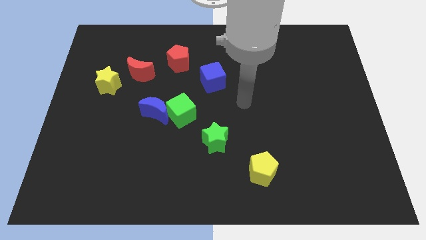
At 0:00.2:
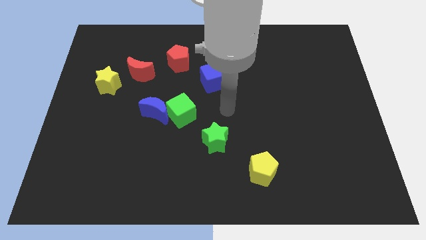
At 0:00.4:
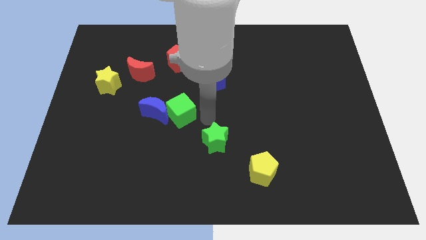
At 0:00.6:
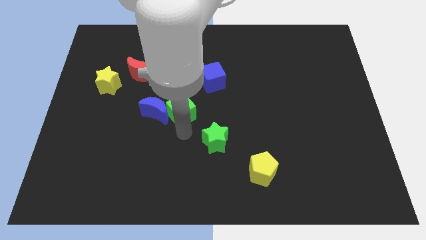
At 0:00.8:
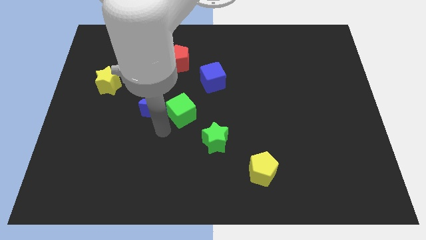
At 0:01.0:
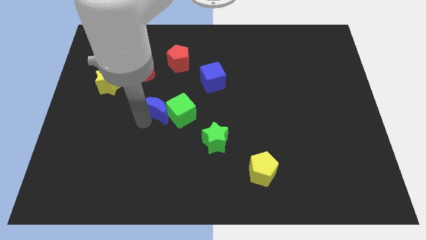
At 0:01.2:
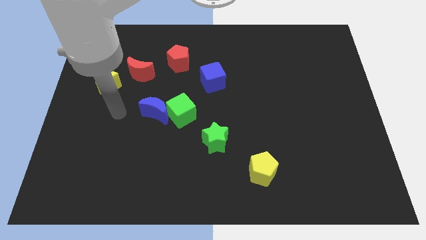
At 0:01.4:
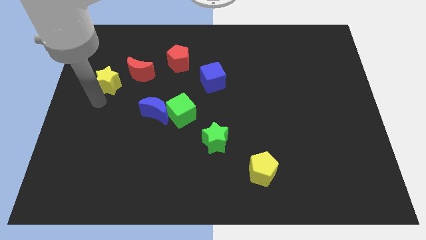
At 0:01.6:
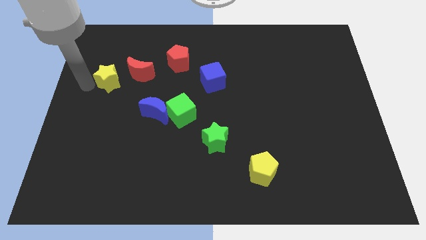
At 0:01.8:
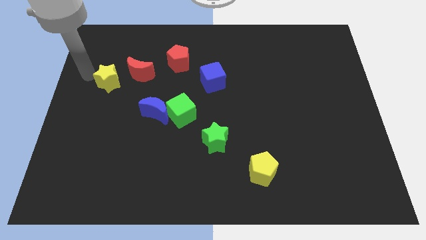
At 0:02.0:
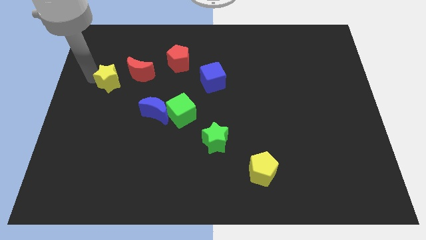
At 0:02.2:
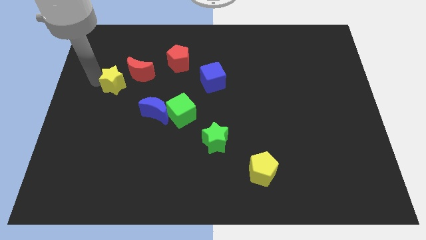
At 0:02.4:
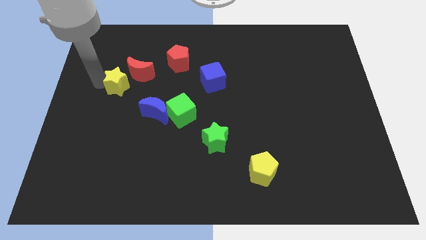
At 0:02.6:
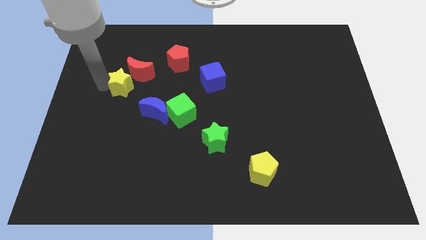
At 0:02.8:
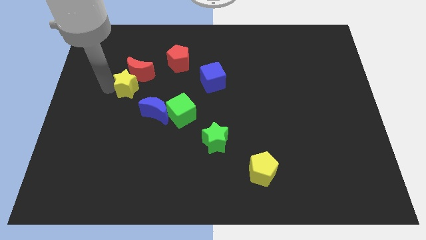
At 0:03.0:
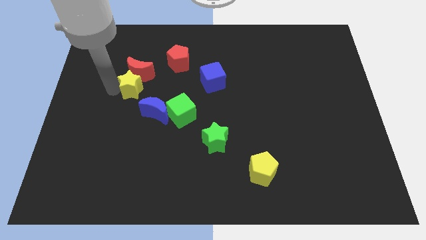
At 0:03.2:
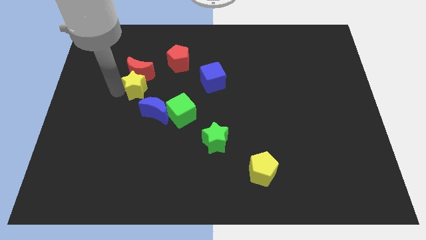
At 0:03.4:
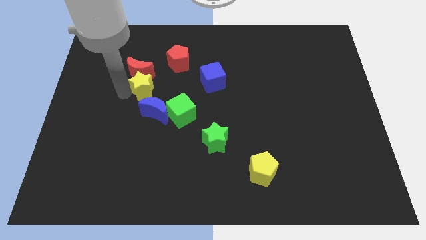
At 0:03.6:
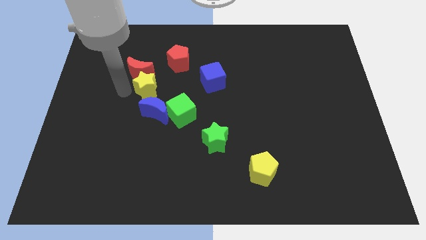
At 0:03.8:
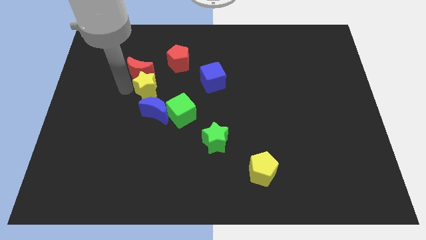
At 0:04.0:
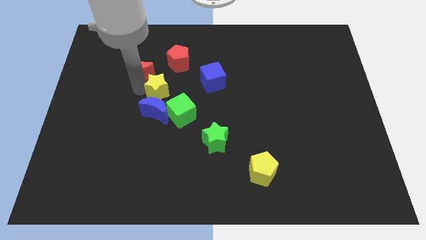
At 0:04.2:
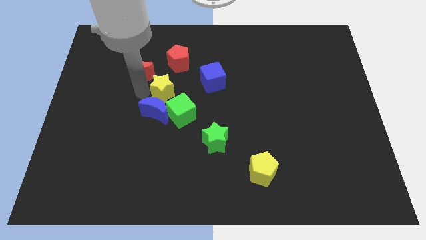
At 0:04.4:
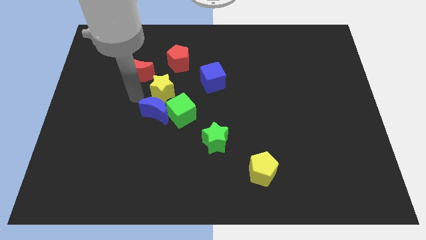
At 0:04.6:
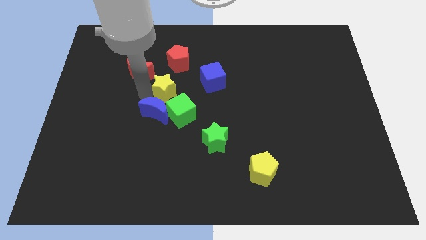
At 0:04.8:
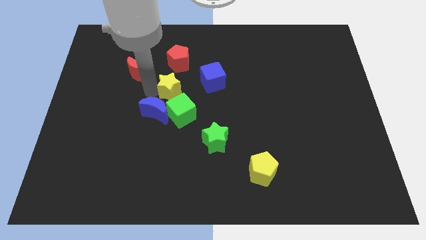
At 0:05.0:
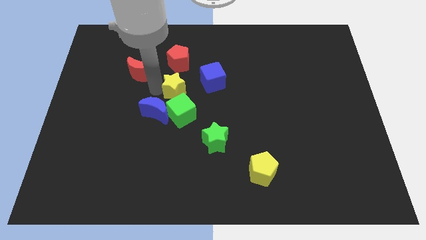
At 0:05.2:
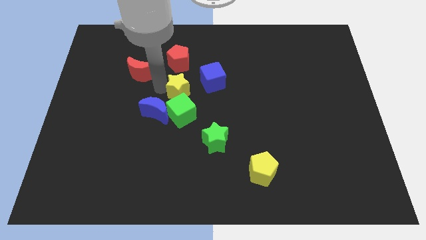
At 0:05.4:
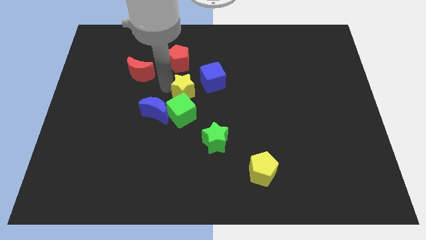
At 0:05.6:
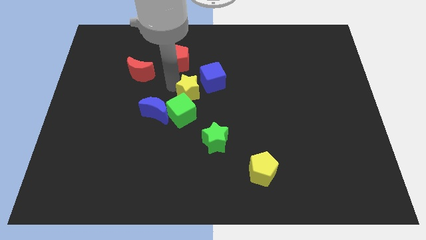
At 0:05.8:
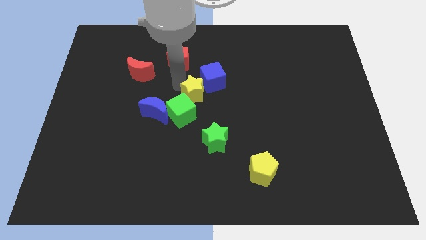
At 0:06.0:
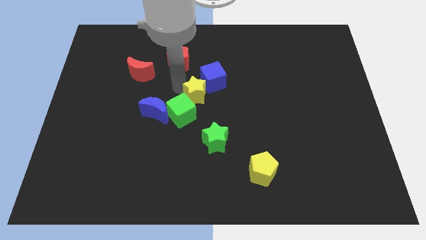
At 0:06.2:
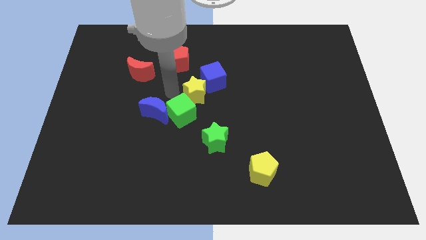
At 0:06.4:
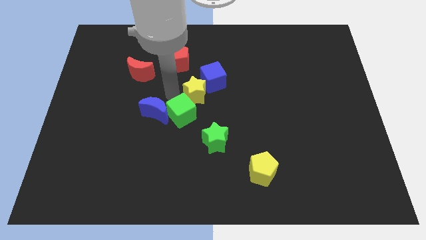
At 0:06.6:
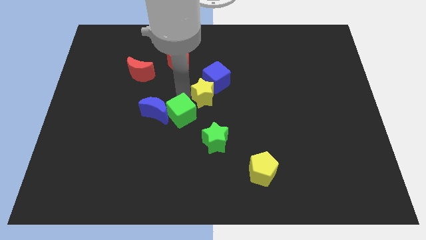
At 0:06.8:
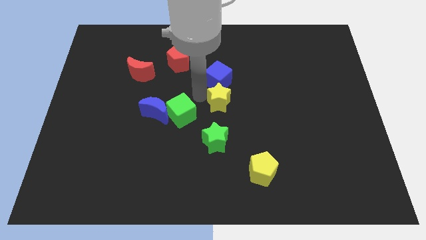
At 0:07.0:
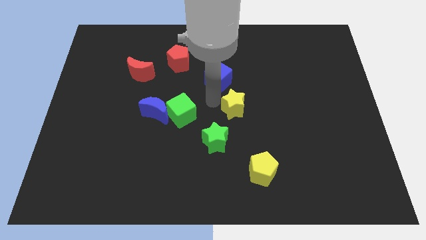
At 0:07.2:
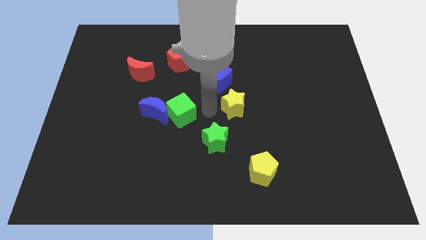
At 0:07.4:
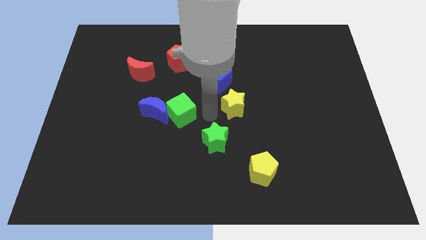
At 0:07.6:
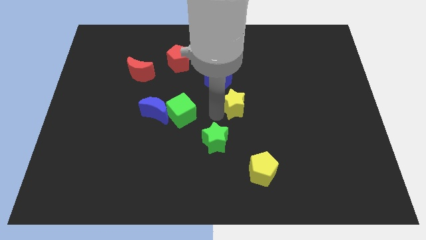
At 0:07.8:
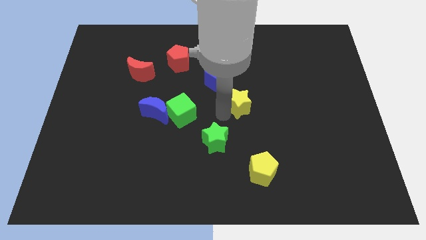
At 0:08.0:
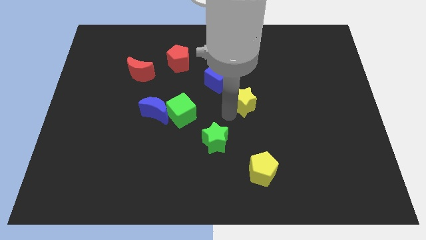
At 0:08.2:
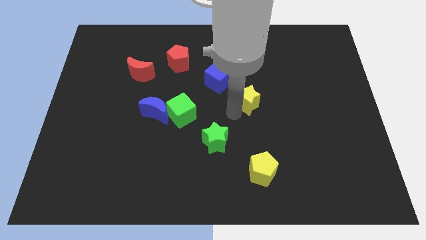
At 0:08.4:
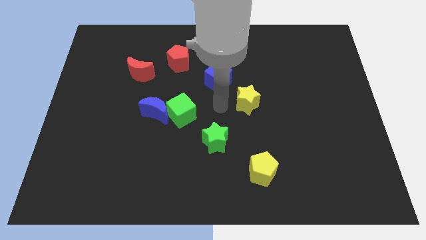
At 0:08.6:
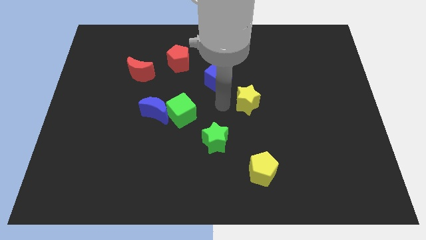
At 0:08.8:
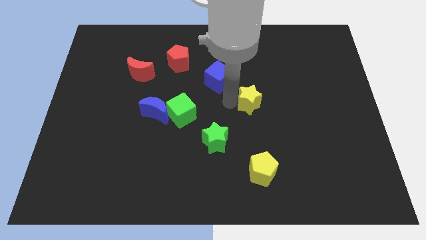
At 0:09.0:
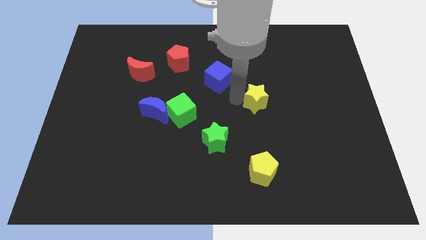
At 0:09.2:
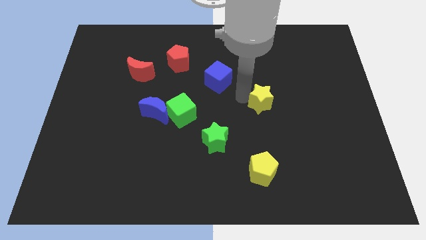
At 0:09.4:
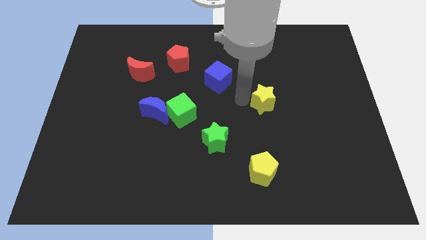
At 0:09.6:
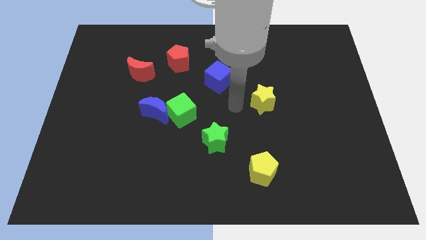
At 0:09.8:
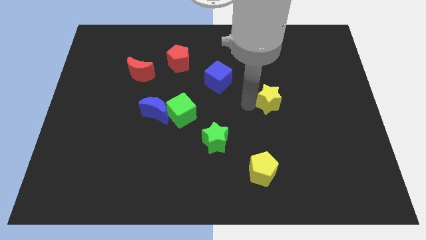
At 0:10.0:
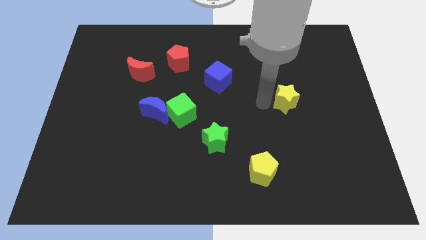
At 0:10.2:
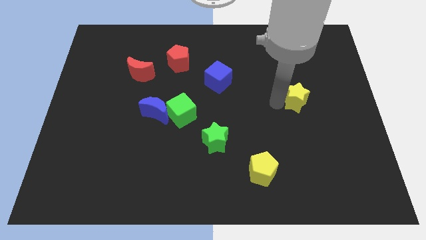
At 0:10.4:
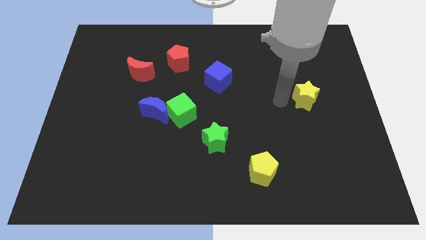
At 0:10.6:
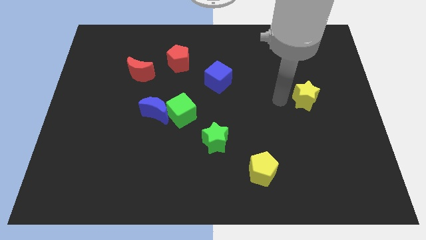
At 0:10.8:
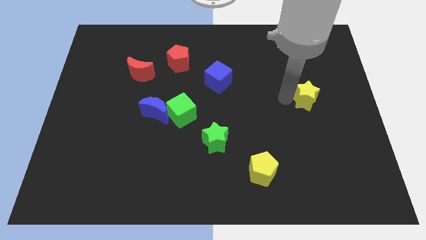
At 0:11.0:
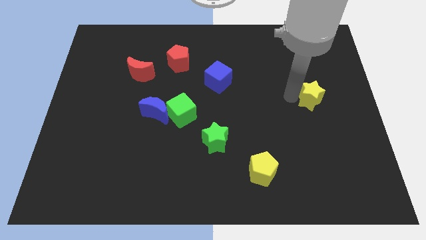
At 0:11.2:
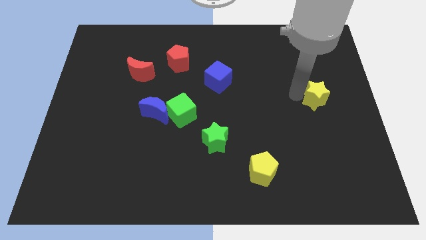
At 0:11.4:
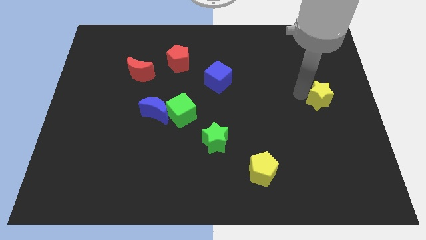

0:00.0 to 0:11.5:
push the yellow star to the center right
